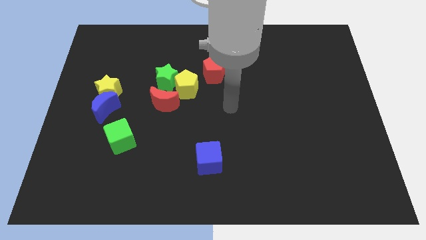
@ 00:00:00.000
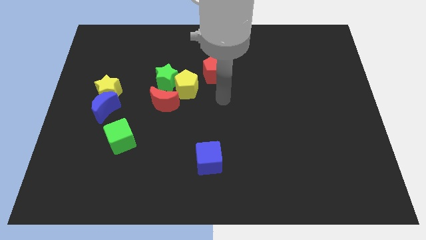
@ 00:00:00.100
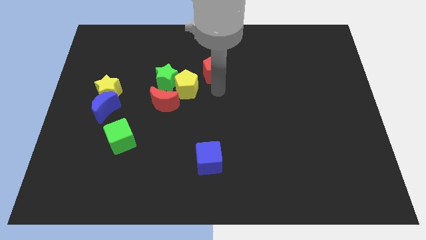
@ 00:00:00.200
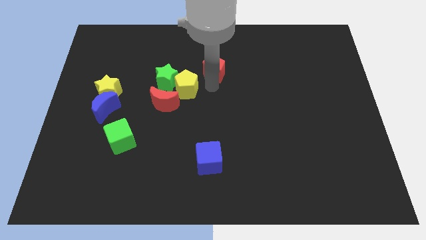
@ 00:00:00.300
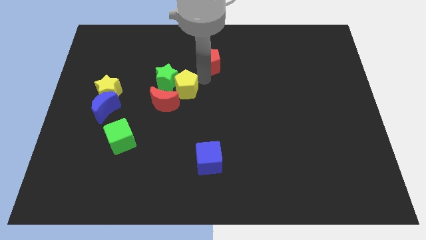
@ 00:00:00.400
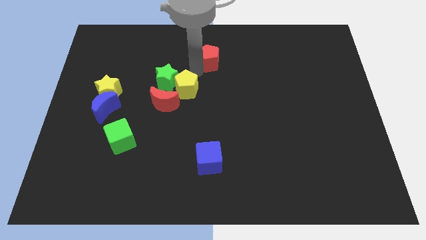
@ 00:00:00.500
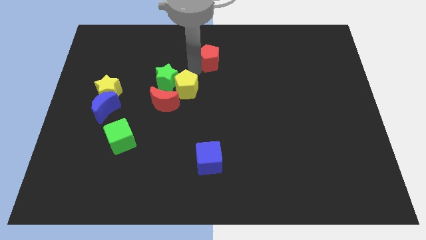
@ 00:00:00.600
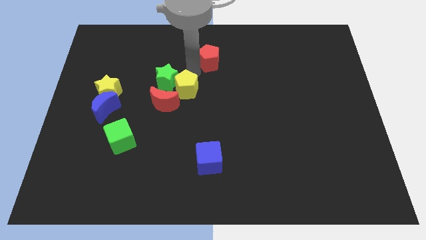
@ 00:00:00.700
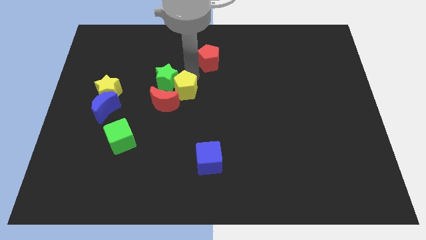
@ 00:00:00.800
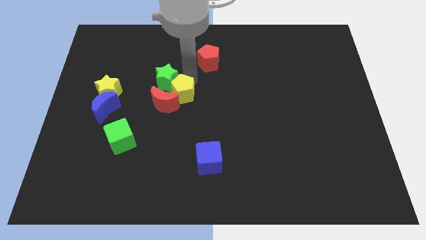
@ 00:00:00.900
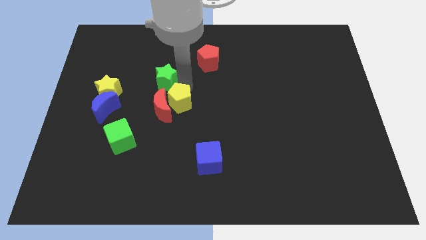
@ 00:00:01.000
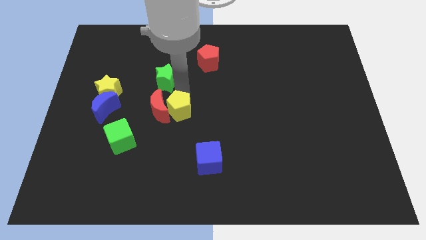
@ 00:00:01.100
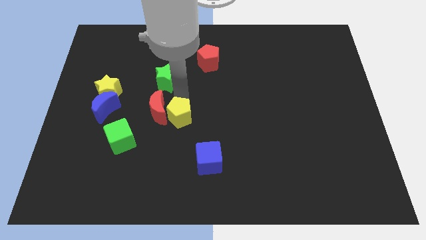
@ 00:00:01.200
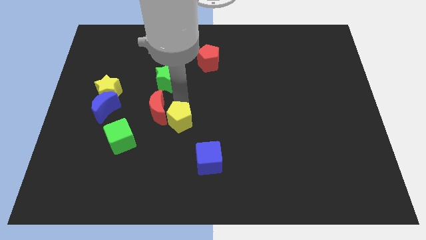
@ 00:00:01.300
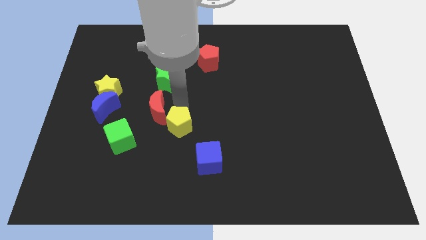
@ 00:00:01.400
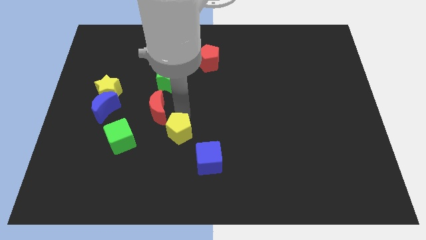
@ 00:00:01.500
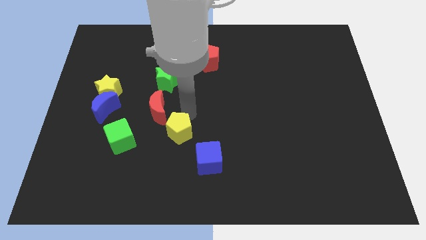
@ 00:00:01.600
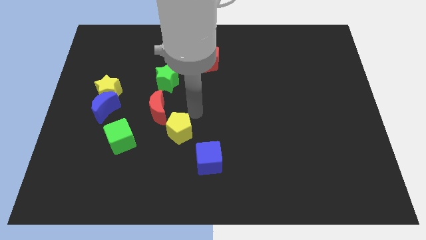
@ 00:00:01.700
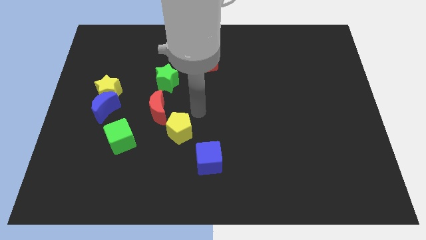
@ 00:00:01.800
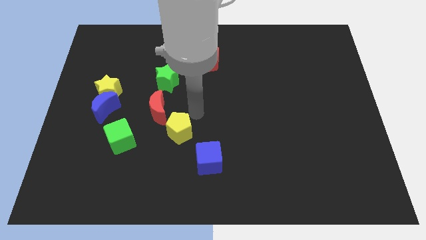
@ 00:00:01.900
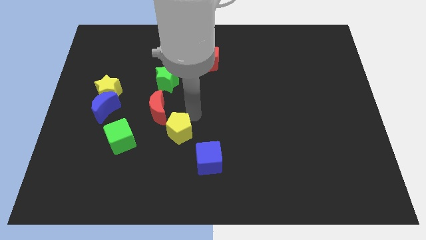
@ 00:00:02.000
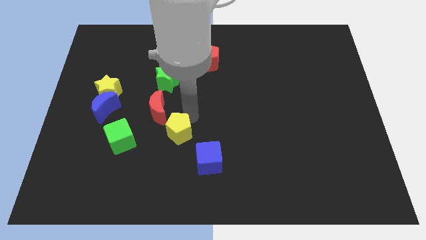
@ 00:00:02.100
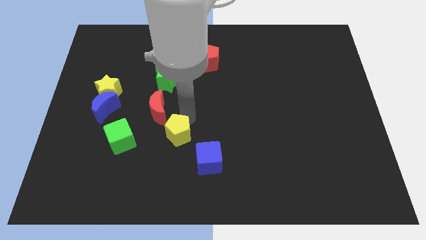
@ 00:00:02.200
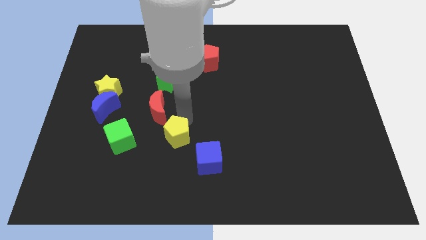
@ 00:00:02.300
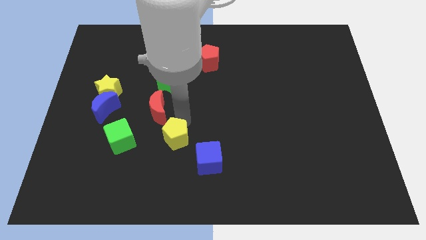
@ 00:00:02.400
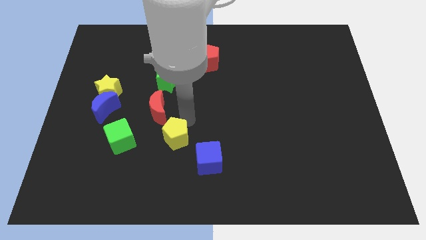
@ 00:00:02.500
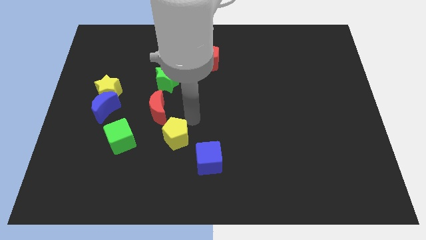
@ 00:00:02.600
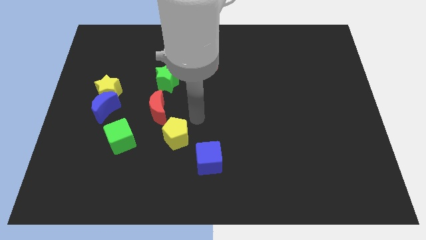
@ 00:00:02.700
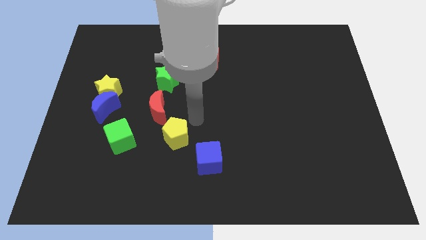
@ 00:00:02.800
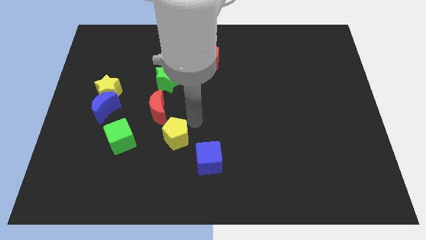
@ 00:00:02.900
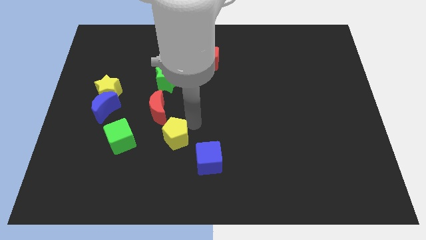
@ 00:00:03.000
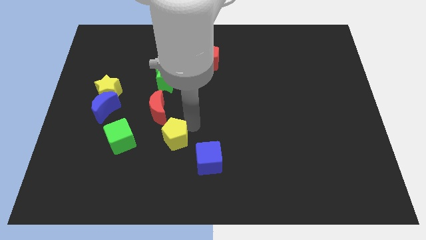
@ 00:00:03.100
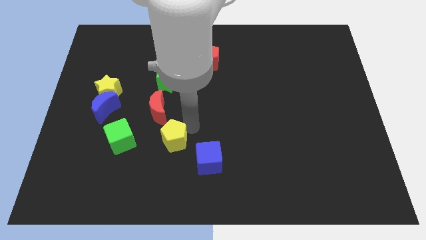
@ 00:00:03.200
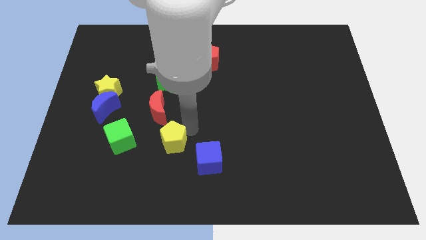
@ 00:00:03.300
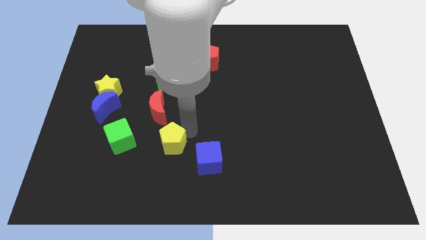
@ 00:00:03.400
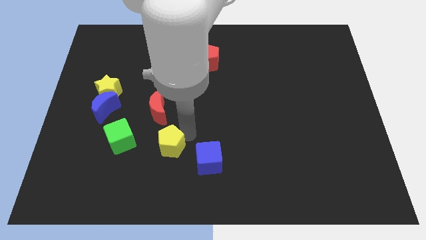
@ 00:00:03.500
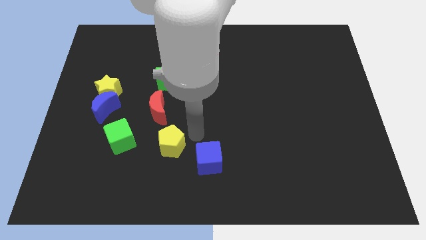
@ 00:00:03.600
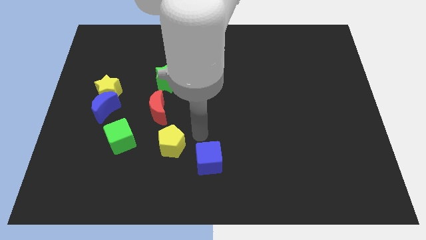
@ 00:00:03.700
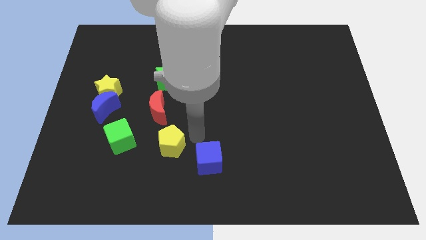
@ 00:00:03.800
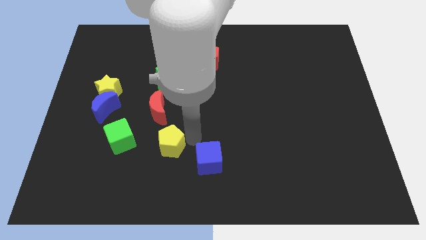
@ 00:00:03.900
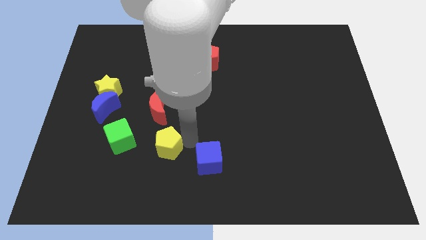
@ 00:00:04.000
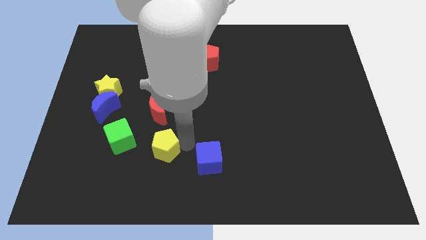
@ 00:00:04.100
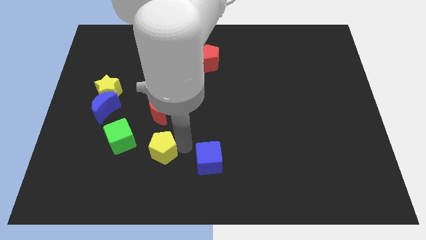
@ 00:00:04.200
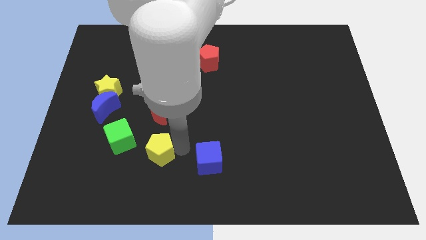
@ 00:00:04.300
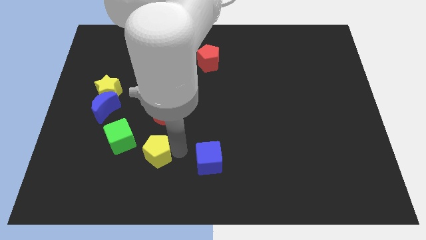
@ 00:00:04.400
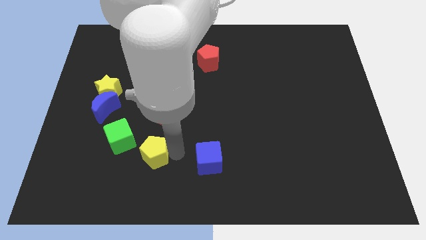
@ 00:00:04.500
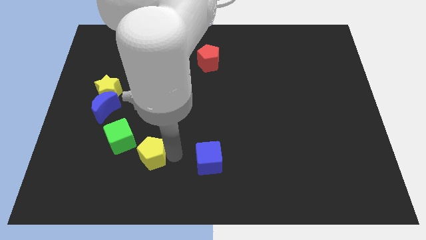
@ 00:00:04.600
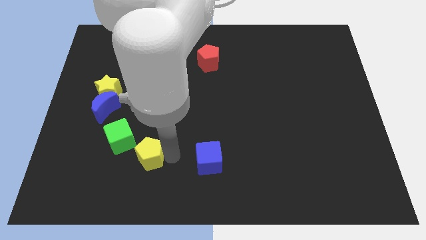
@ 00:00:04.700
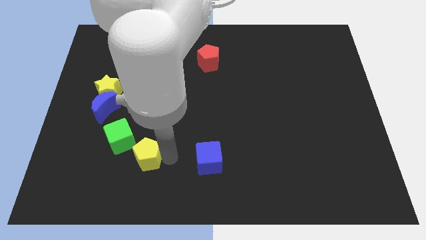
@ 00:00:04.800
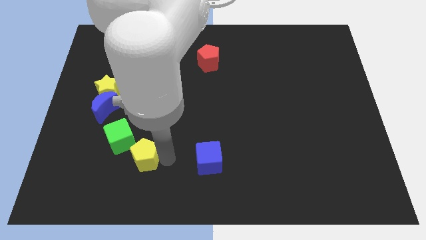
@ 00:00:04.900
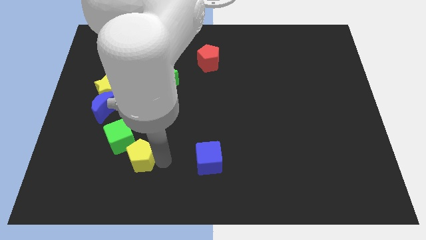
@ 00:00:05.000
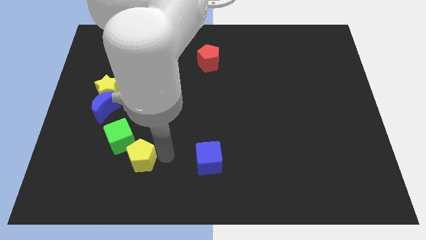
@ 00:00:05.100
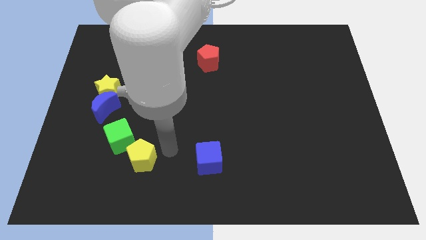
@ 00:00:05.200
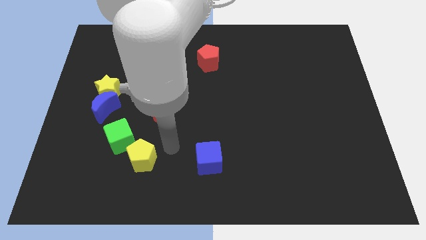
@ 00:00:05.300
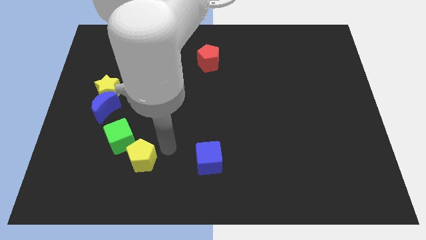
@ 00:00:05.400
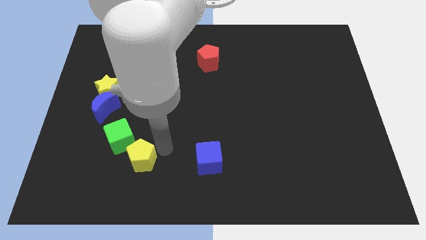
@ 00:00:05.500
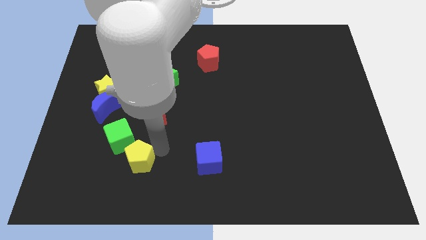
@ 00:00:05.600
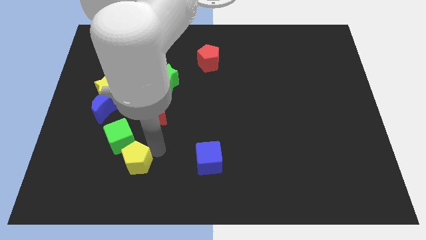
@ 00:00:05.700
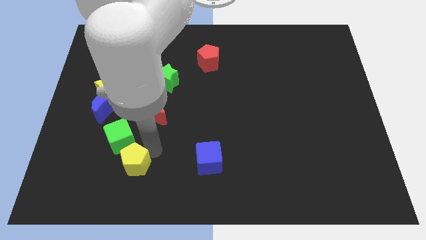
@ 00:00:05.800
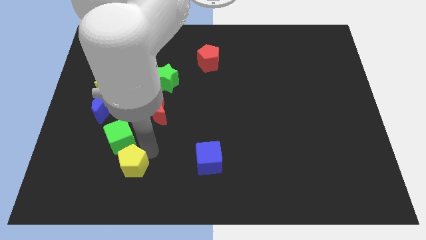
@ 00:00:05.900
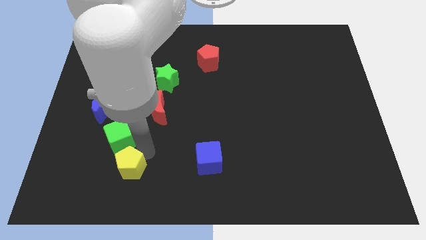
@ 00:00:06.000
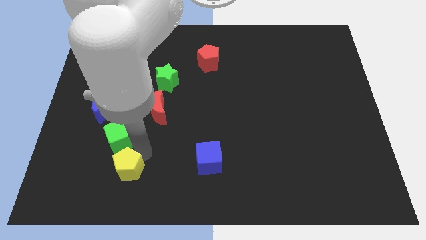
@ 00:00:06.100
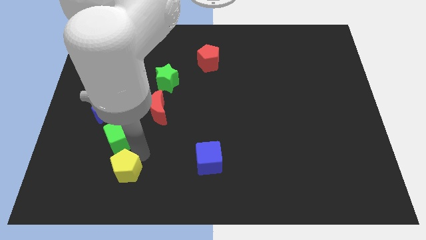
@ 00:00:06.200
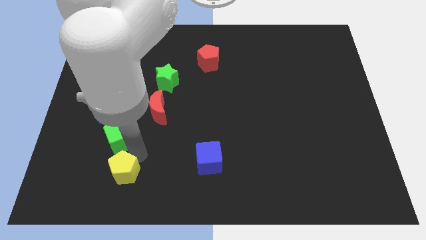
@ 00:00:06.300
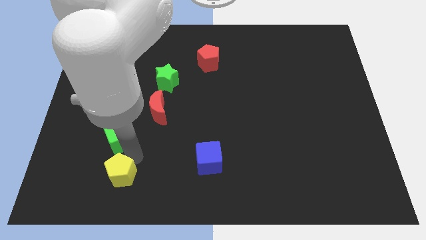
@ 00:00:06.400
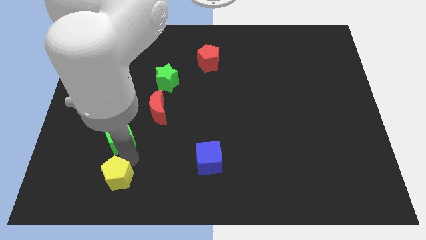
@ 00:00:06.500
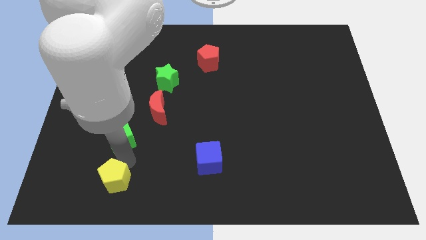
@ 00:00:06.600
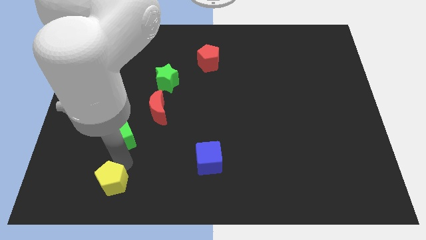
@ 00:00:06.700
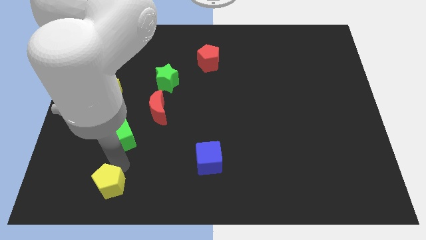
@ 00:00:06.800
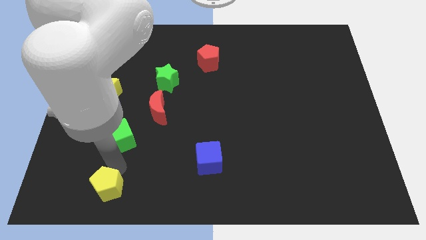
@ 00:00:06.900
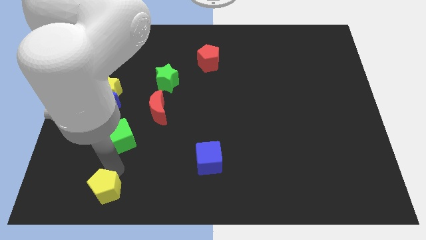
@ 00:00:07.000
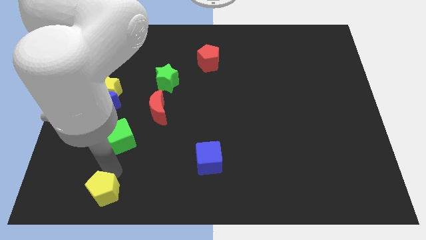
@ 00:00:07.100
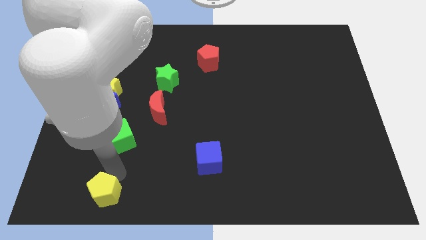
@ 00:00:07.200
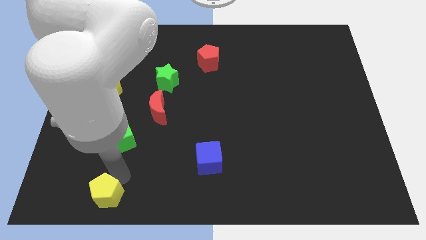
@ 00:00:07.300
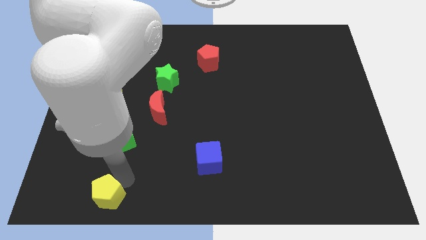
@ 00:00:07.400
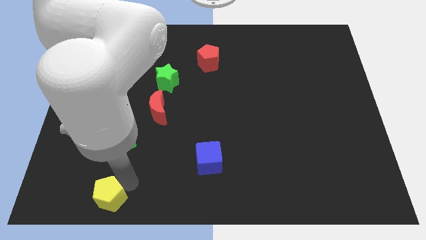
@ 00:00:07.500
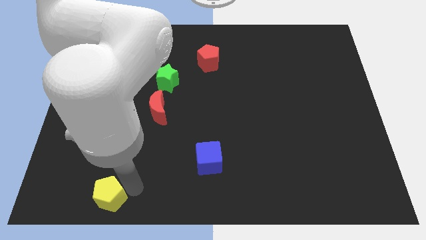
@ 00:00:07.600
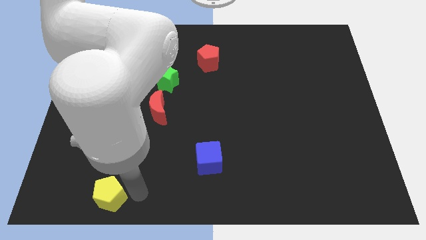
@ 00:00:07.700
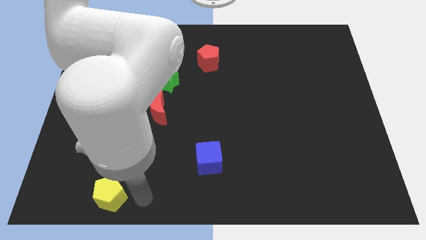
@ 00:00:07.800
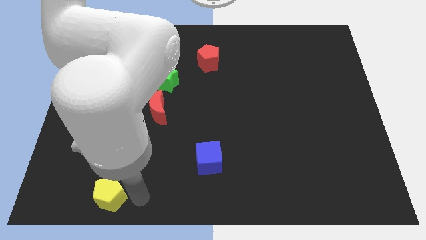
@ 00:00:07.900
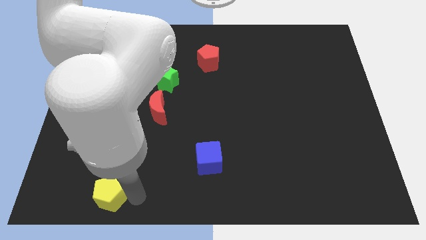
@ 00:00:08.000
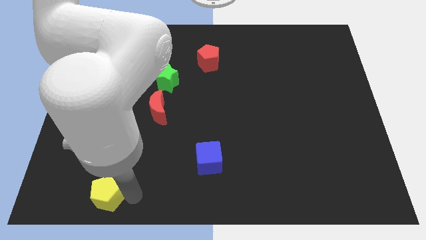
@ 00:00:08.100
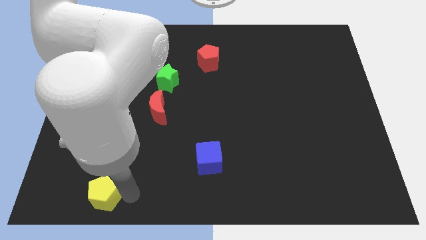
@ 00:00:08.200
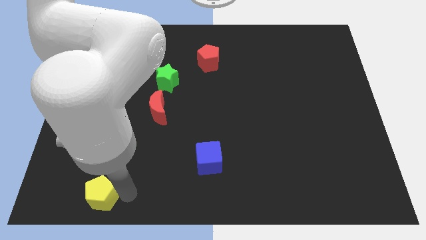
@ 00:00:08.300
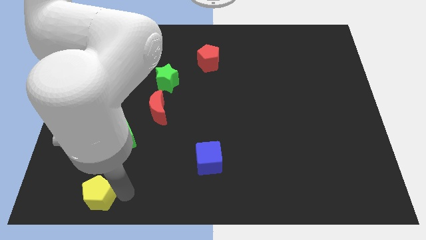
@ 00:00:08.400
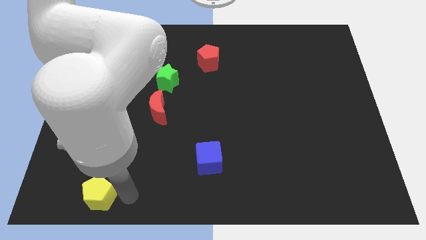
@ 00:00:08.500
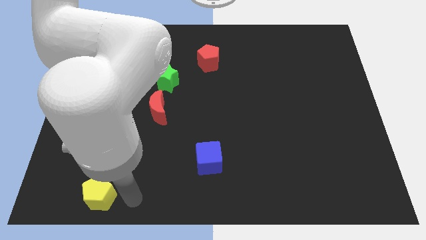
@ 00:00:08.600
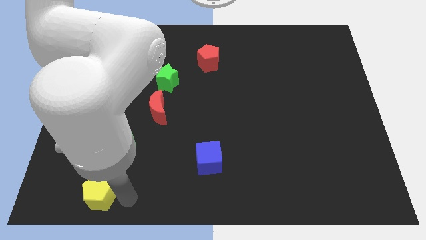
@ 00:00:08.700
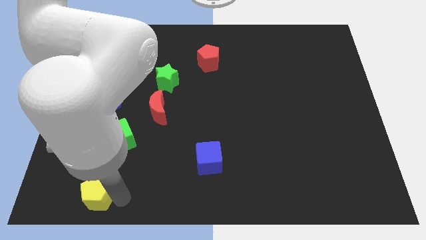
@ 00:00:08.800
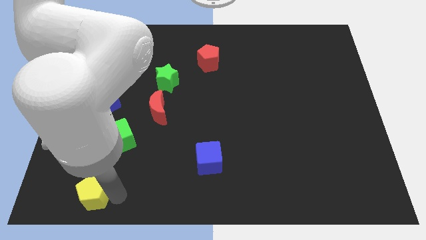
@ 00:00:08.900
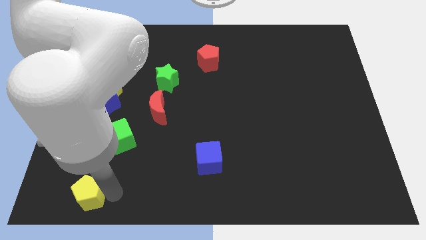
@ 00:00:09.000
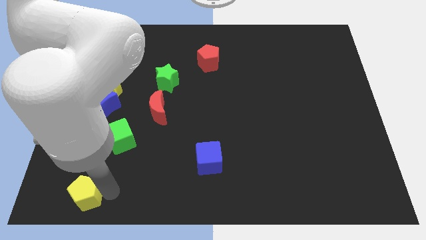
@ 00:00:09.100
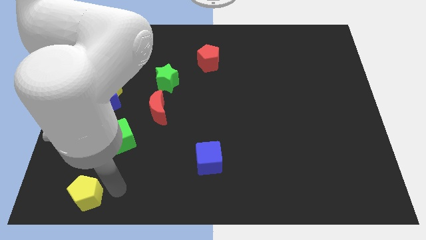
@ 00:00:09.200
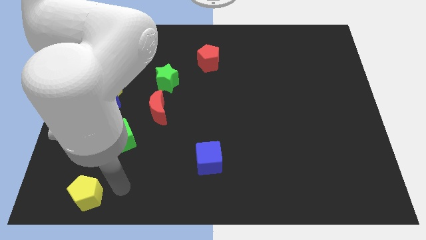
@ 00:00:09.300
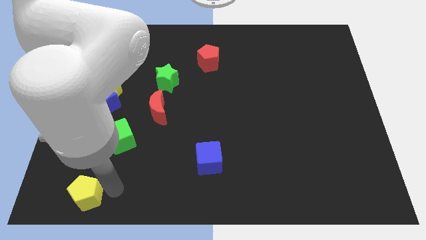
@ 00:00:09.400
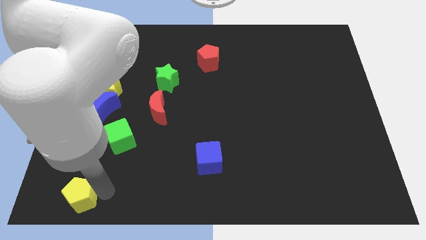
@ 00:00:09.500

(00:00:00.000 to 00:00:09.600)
push the yellow pentagon to the bottom left
